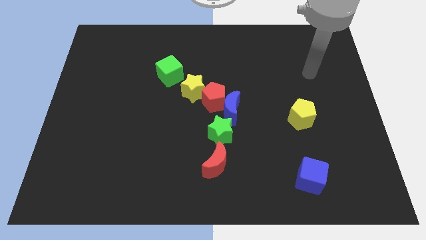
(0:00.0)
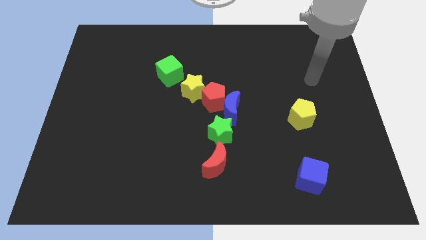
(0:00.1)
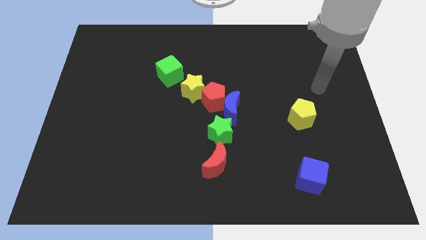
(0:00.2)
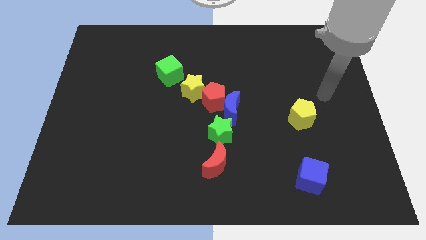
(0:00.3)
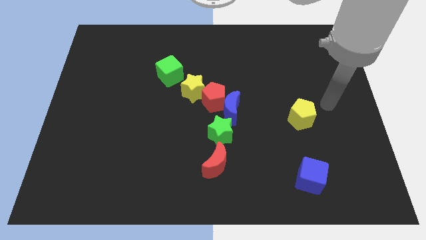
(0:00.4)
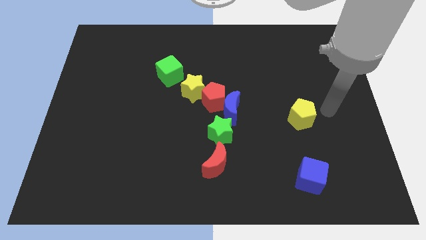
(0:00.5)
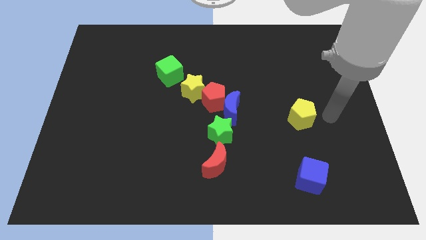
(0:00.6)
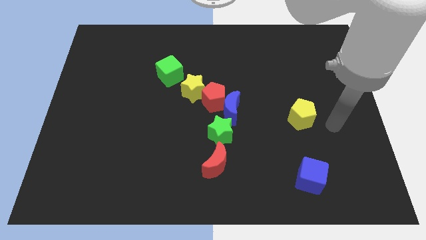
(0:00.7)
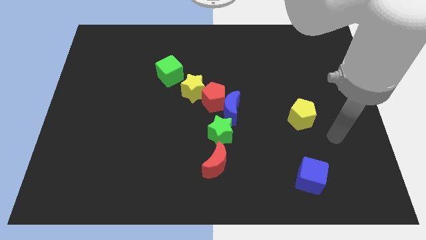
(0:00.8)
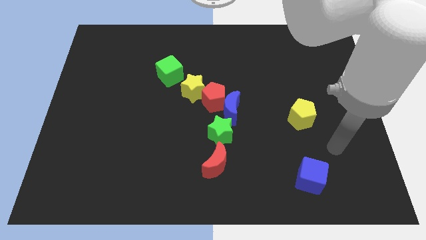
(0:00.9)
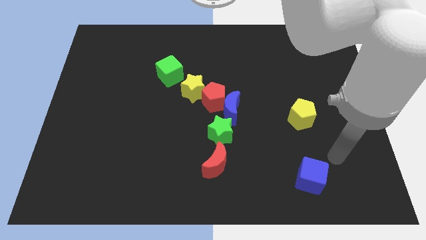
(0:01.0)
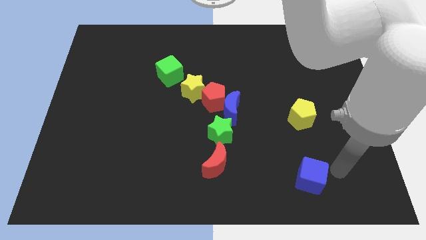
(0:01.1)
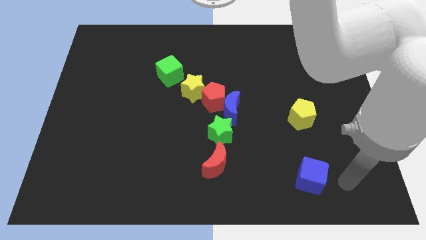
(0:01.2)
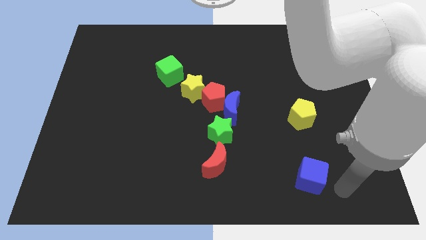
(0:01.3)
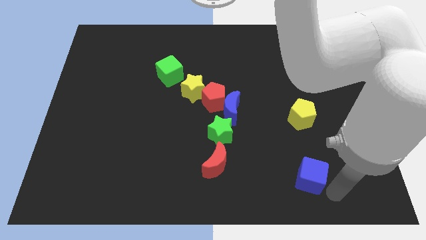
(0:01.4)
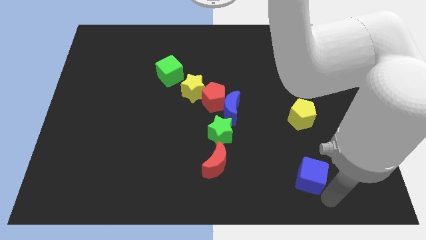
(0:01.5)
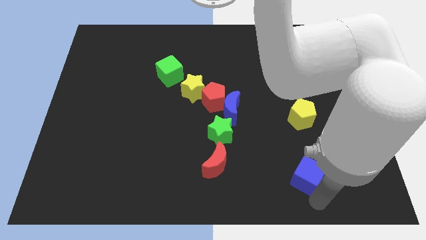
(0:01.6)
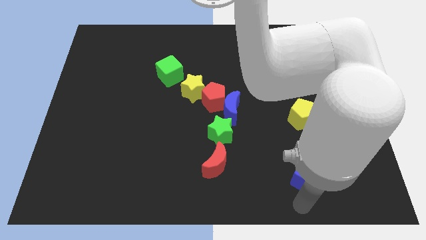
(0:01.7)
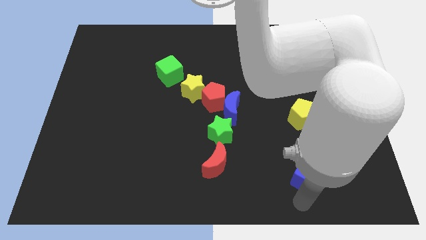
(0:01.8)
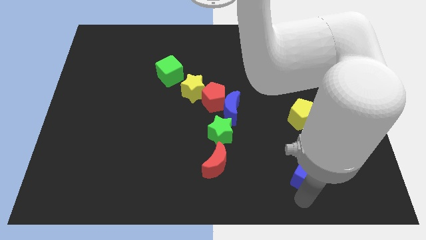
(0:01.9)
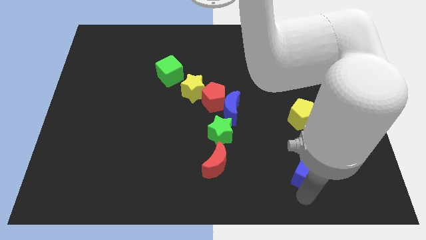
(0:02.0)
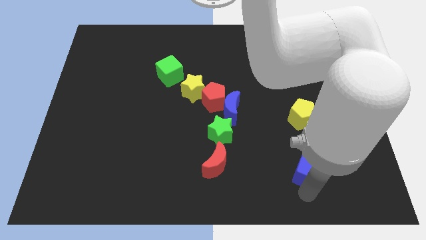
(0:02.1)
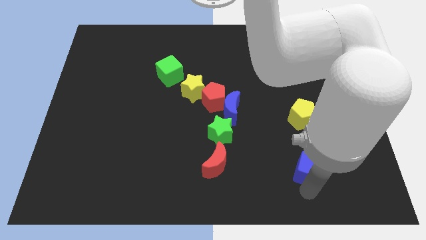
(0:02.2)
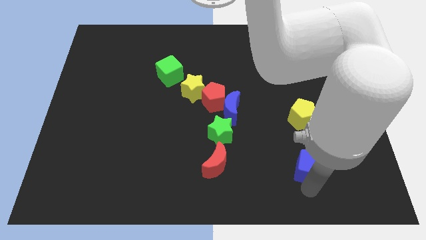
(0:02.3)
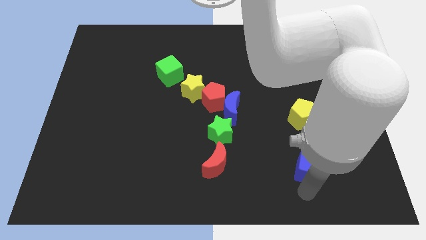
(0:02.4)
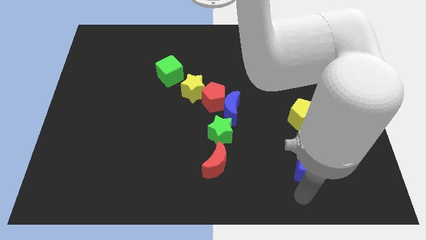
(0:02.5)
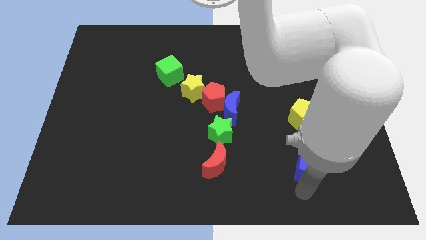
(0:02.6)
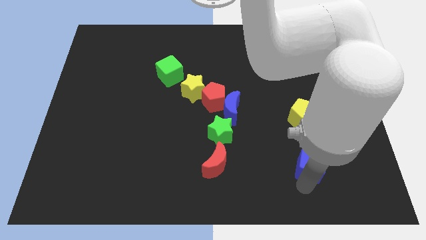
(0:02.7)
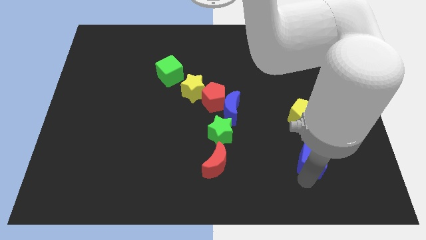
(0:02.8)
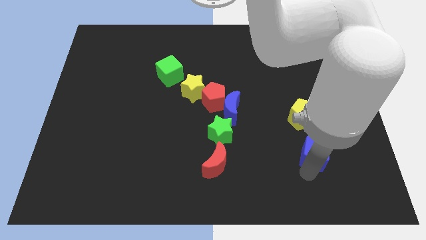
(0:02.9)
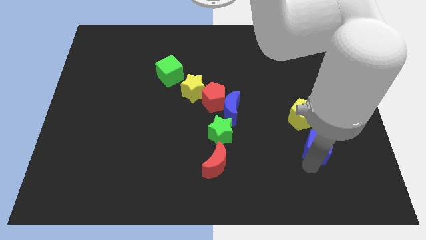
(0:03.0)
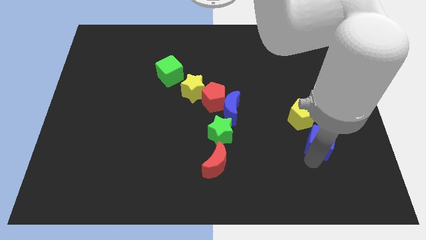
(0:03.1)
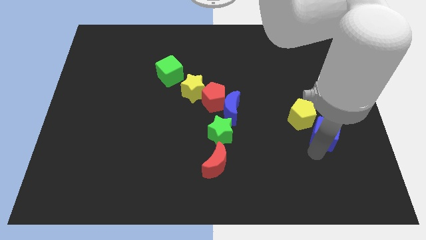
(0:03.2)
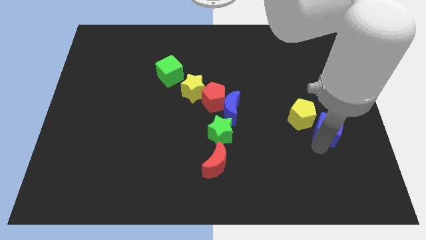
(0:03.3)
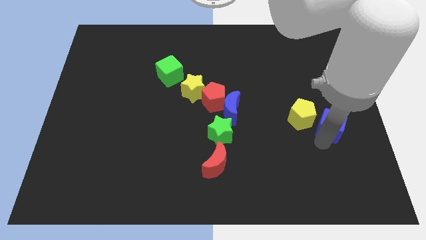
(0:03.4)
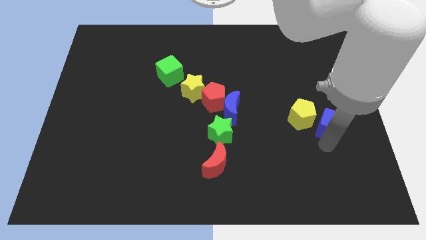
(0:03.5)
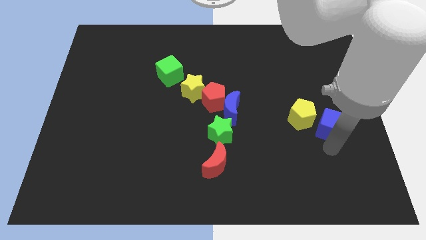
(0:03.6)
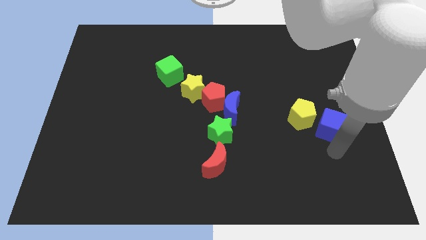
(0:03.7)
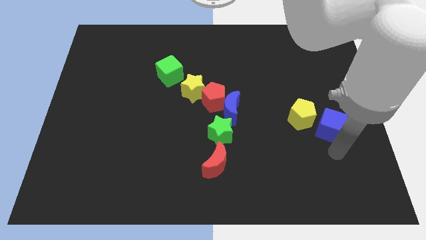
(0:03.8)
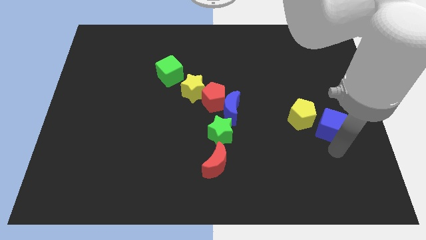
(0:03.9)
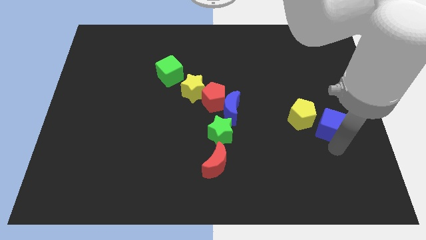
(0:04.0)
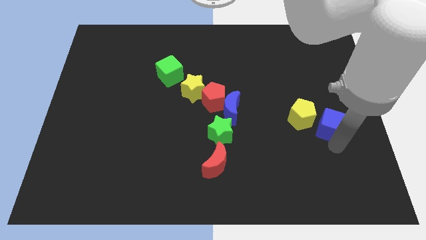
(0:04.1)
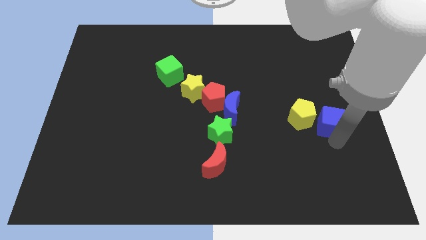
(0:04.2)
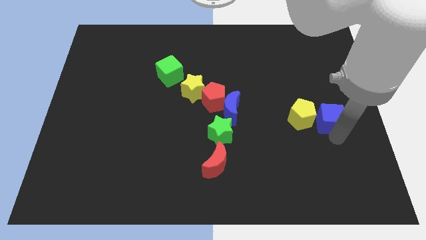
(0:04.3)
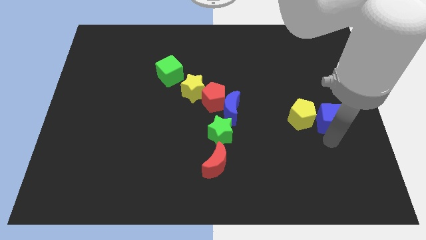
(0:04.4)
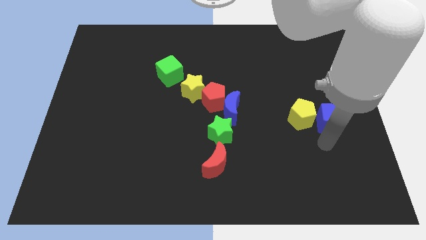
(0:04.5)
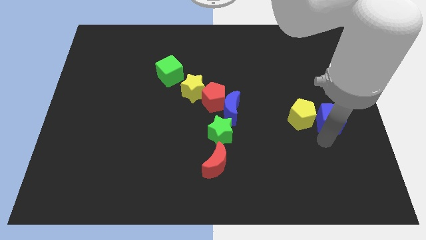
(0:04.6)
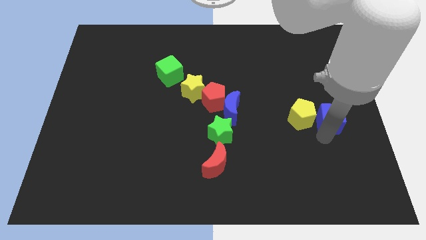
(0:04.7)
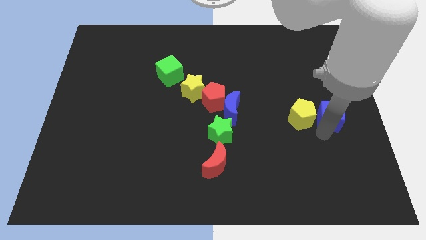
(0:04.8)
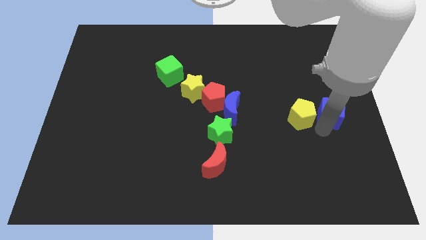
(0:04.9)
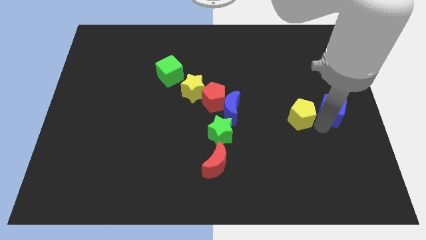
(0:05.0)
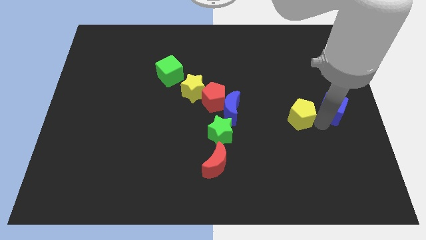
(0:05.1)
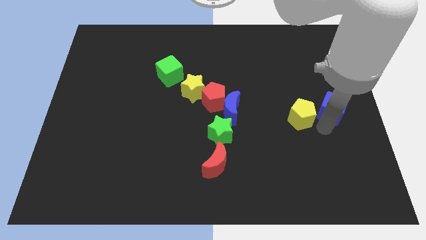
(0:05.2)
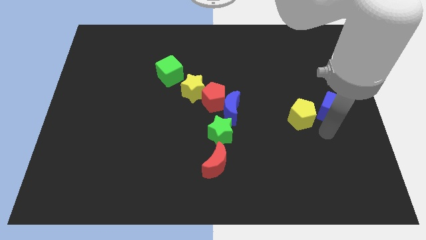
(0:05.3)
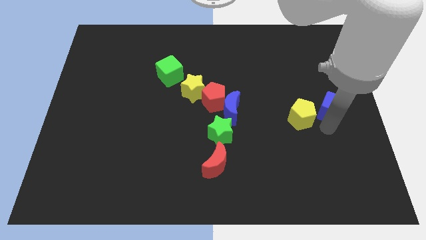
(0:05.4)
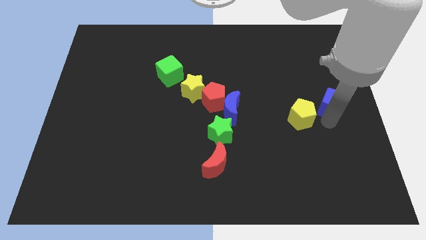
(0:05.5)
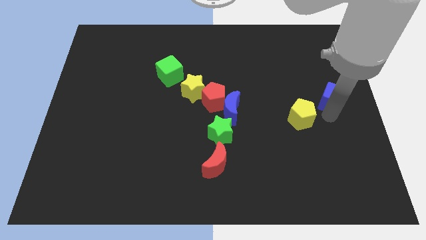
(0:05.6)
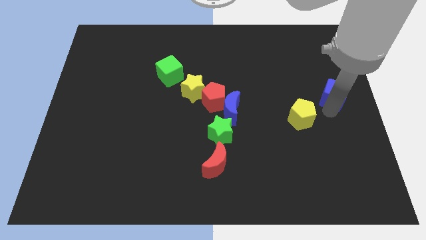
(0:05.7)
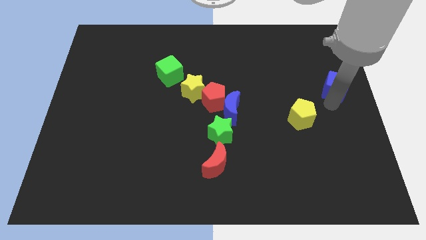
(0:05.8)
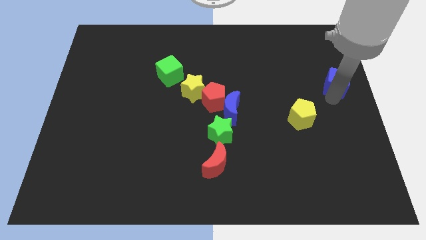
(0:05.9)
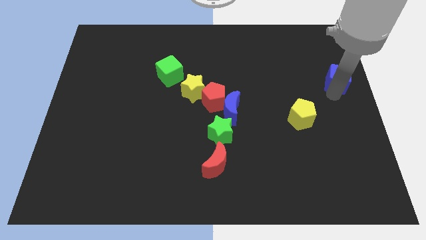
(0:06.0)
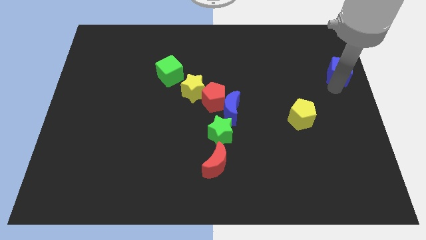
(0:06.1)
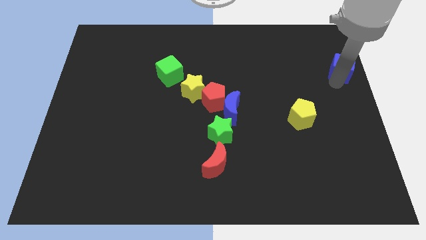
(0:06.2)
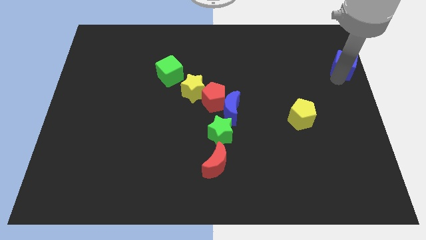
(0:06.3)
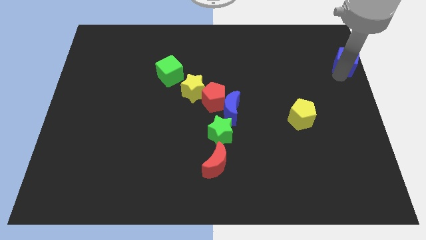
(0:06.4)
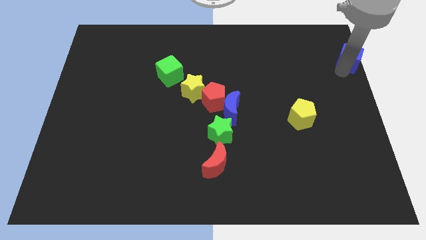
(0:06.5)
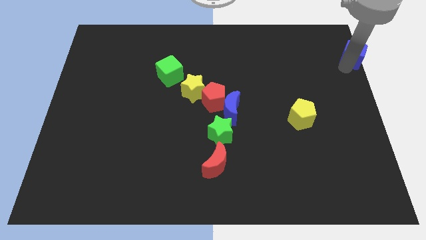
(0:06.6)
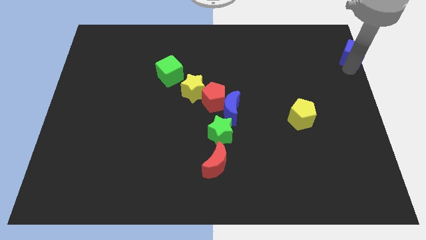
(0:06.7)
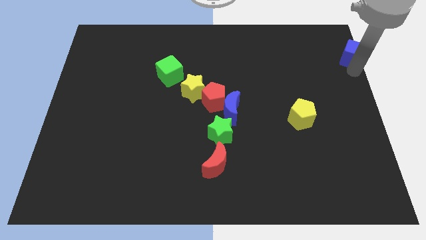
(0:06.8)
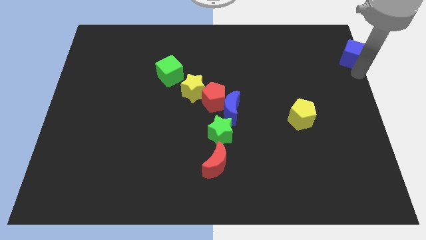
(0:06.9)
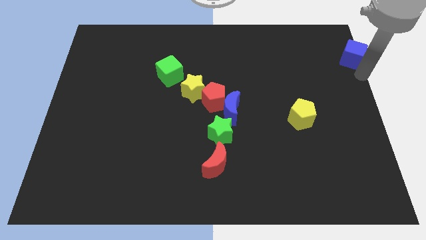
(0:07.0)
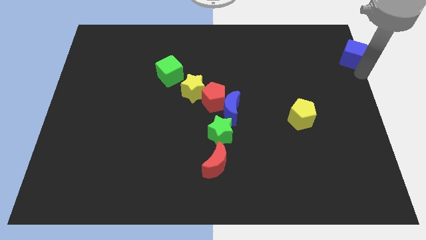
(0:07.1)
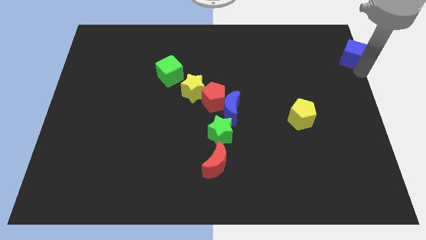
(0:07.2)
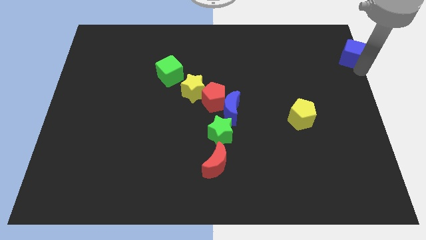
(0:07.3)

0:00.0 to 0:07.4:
move the blue cube to the upper right corner
